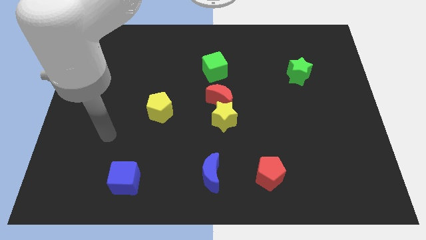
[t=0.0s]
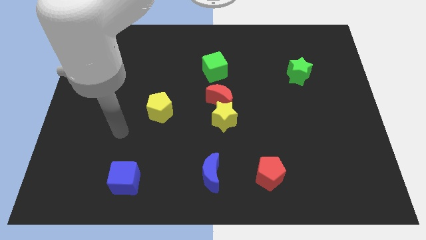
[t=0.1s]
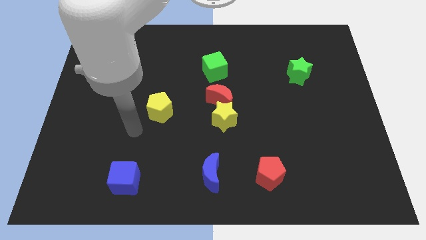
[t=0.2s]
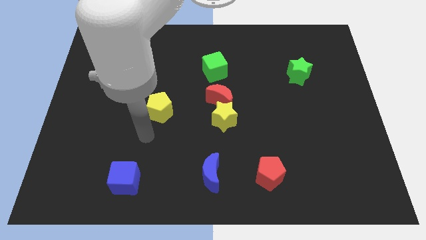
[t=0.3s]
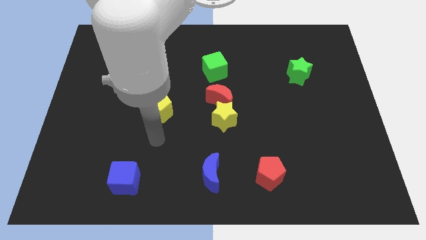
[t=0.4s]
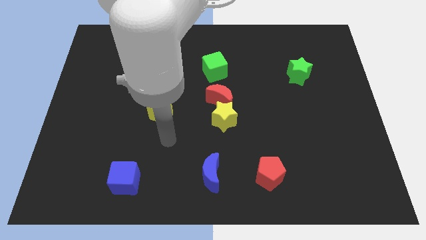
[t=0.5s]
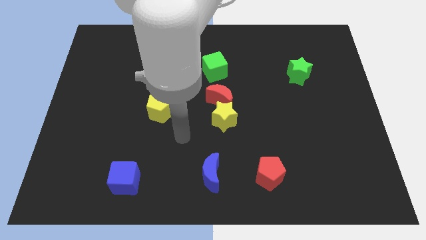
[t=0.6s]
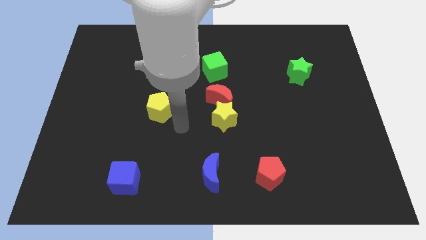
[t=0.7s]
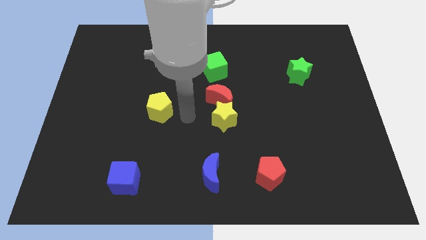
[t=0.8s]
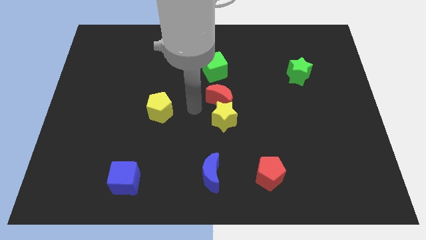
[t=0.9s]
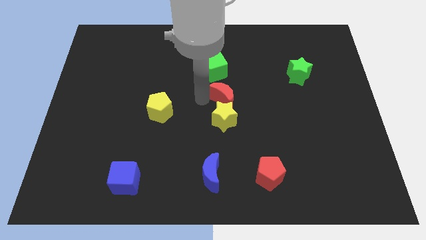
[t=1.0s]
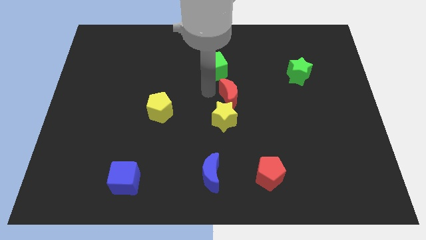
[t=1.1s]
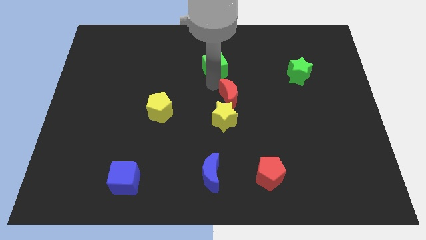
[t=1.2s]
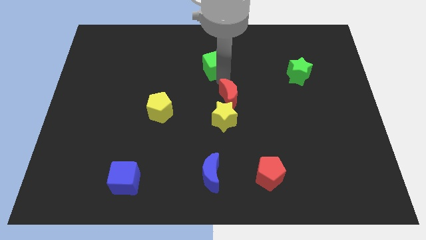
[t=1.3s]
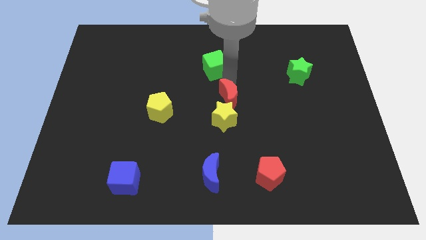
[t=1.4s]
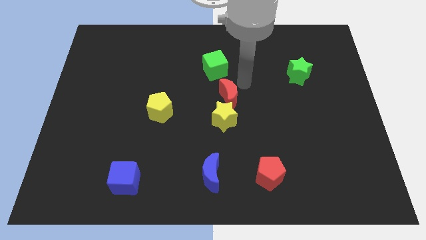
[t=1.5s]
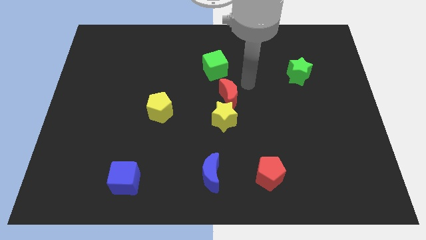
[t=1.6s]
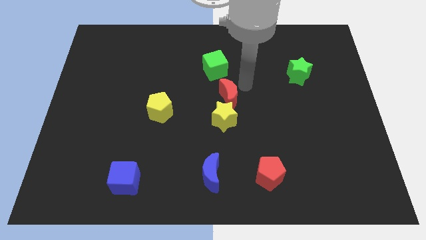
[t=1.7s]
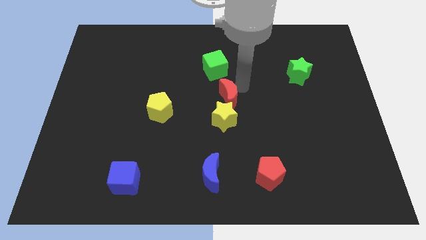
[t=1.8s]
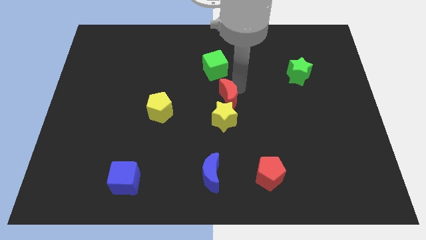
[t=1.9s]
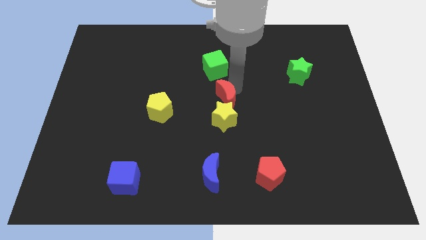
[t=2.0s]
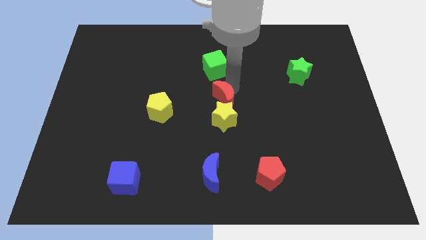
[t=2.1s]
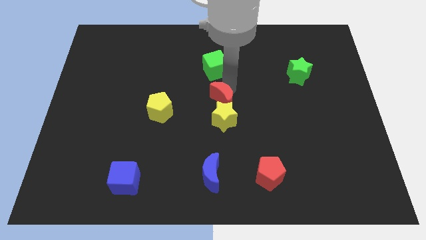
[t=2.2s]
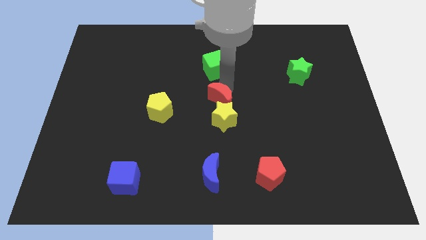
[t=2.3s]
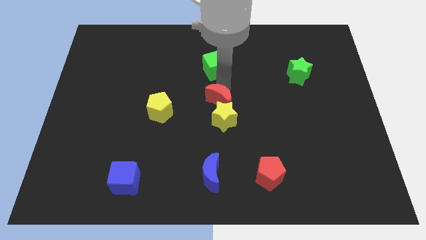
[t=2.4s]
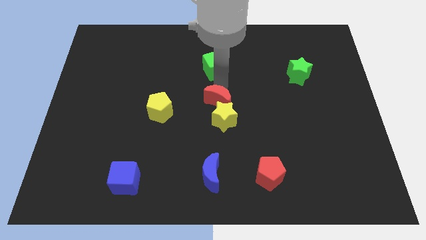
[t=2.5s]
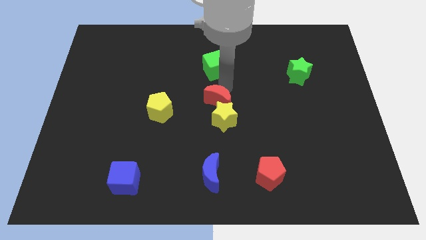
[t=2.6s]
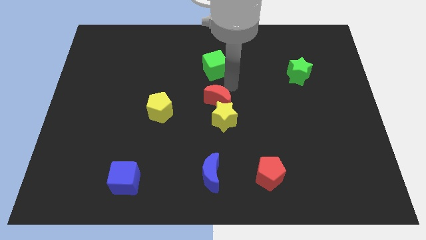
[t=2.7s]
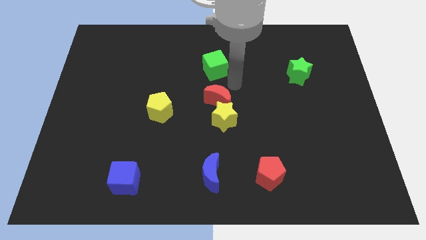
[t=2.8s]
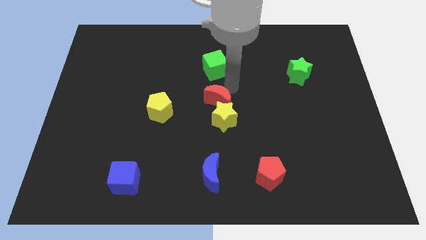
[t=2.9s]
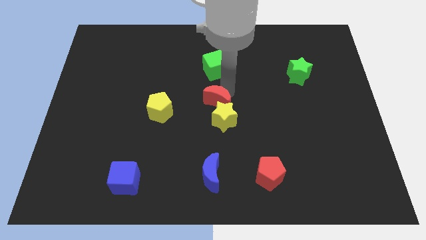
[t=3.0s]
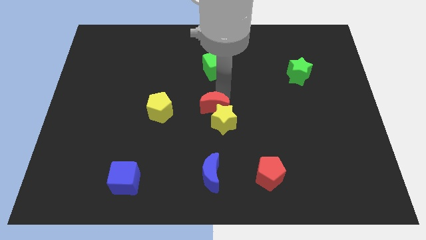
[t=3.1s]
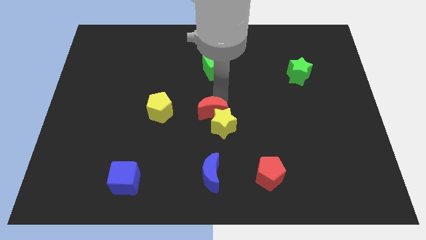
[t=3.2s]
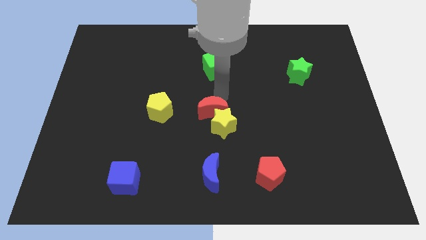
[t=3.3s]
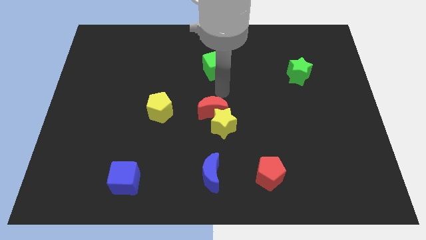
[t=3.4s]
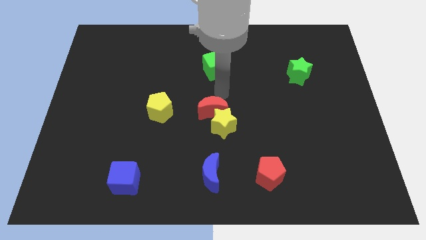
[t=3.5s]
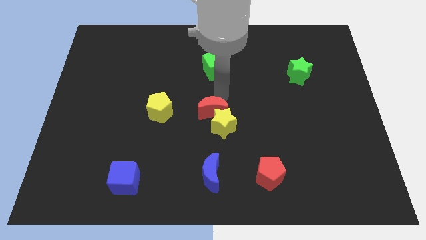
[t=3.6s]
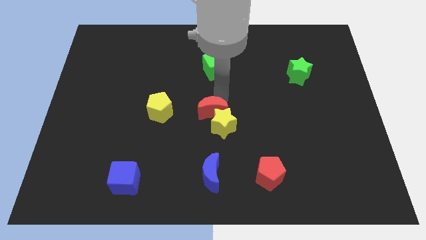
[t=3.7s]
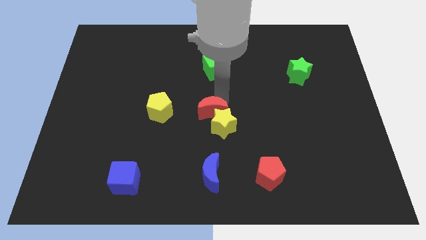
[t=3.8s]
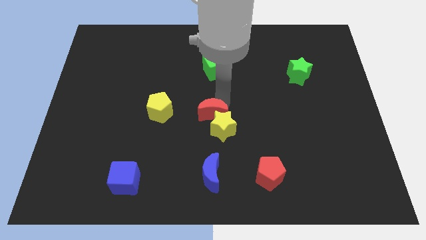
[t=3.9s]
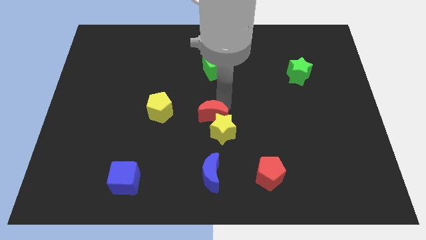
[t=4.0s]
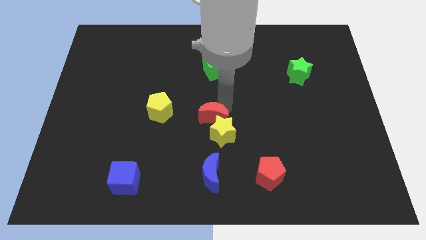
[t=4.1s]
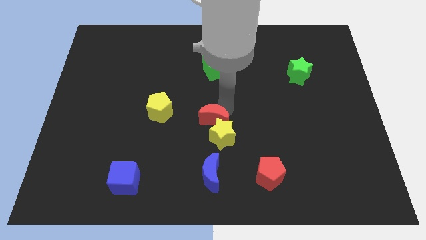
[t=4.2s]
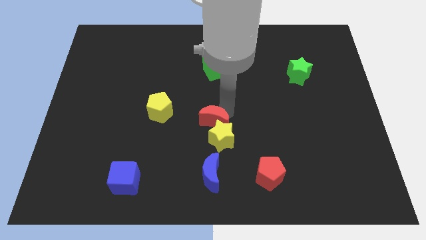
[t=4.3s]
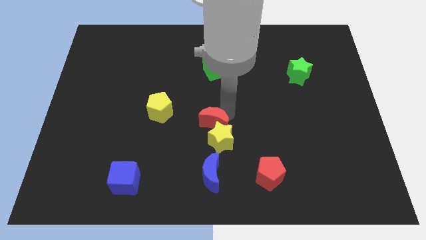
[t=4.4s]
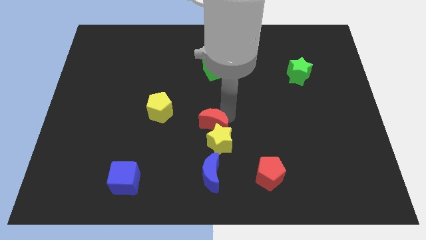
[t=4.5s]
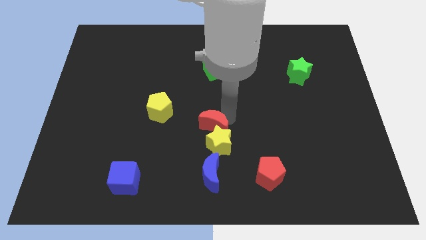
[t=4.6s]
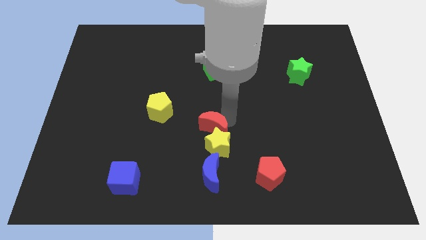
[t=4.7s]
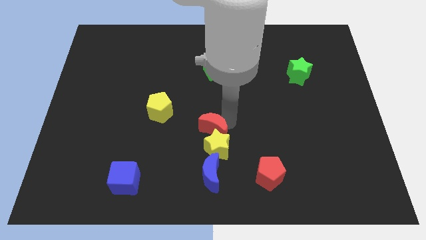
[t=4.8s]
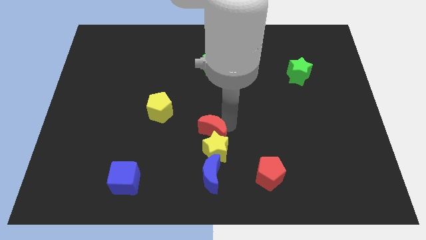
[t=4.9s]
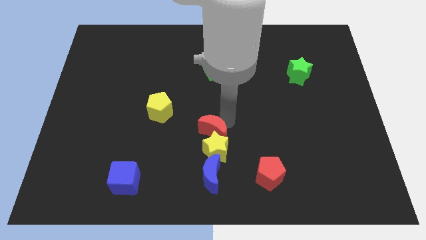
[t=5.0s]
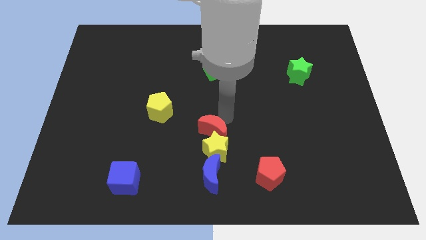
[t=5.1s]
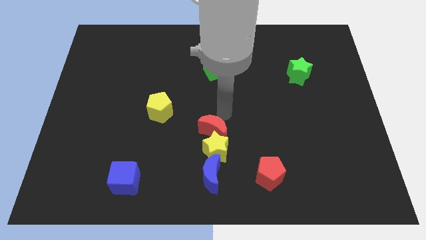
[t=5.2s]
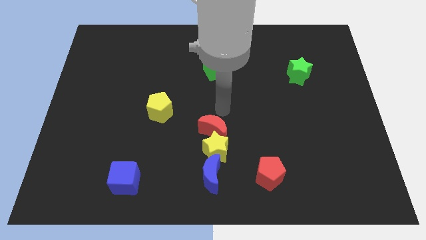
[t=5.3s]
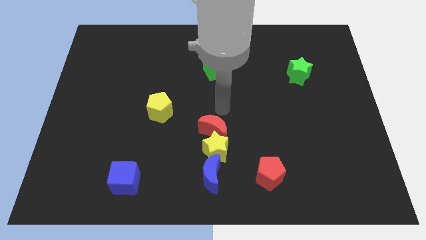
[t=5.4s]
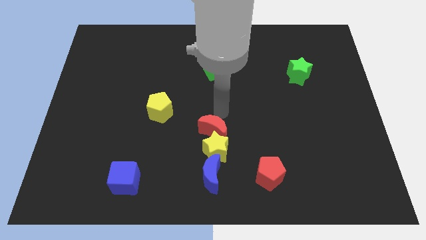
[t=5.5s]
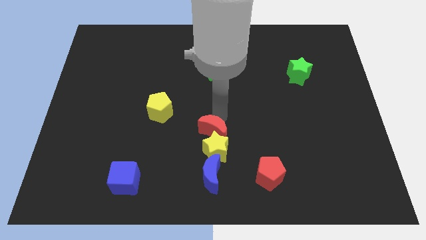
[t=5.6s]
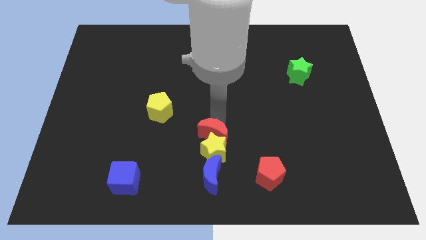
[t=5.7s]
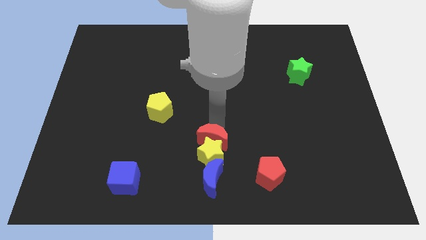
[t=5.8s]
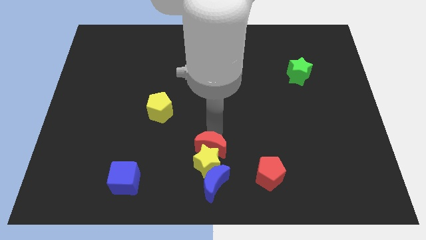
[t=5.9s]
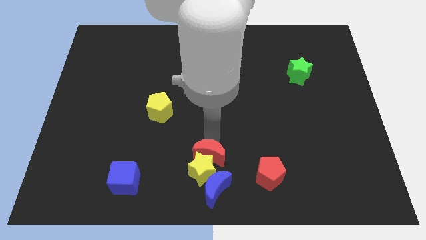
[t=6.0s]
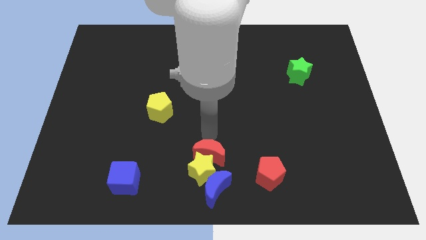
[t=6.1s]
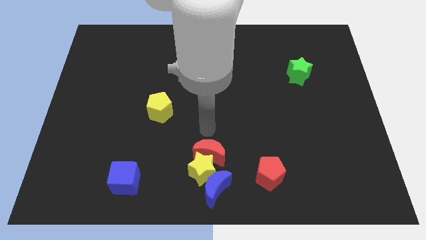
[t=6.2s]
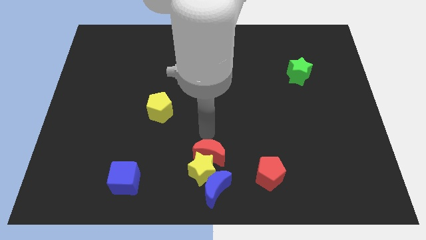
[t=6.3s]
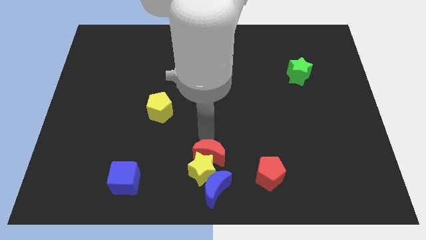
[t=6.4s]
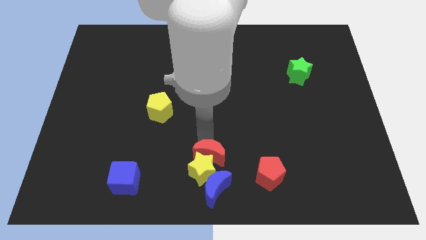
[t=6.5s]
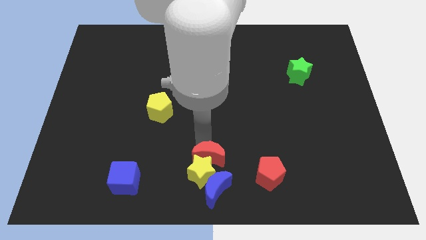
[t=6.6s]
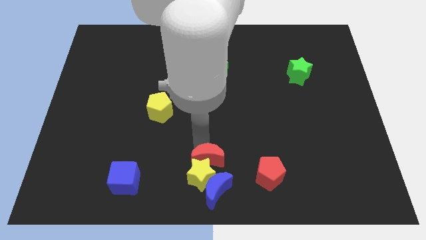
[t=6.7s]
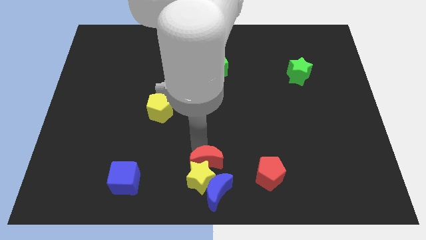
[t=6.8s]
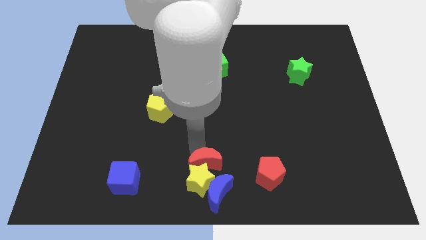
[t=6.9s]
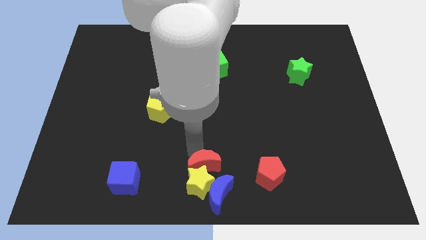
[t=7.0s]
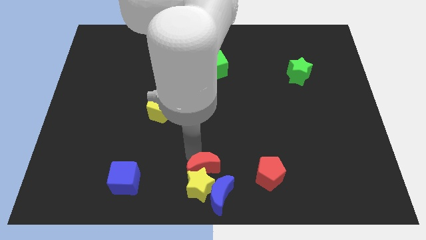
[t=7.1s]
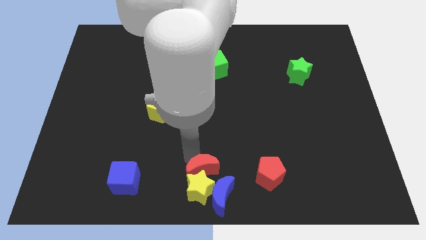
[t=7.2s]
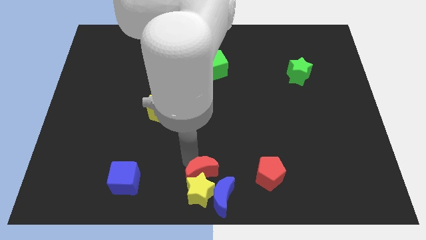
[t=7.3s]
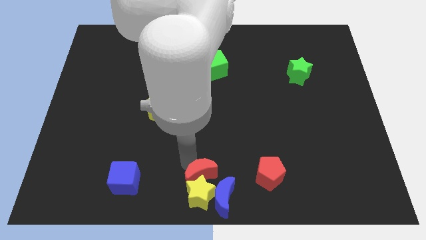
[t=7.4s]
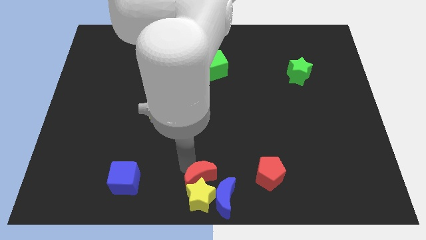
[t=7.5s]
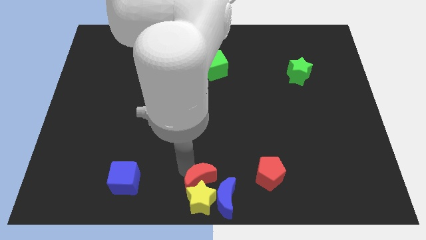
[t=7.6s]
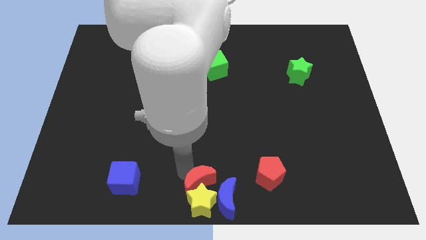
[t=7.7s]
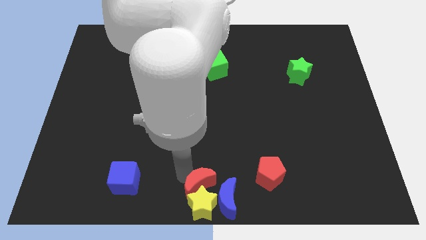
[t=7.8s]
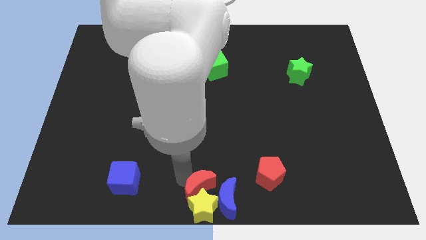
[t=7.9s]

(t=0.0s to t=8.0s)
move the red moon close to the blue moon
